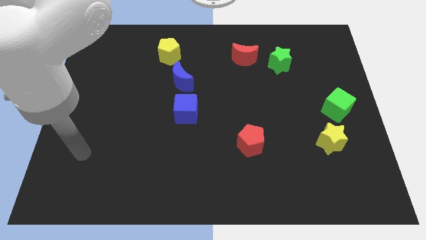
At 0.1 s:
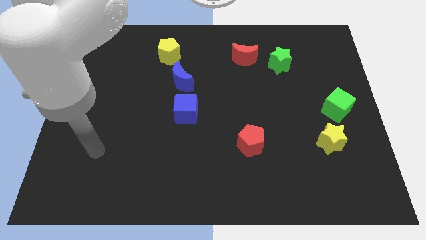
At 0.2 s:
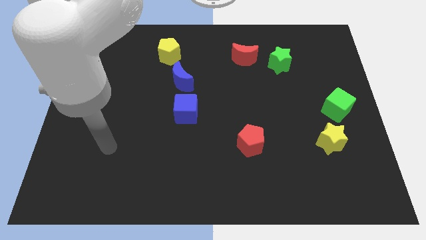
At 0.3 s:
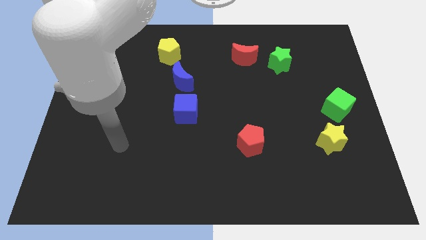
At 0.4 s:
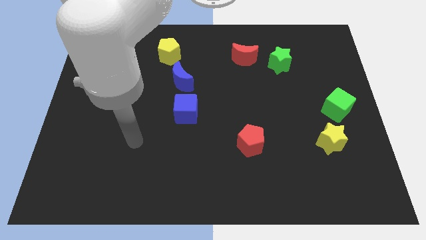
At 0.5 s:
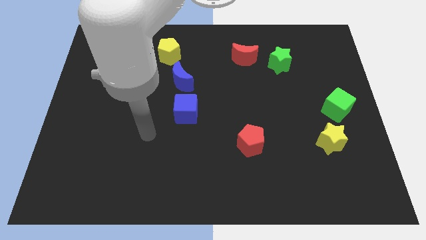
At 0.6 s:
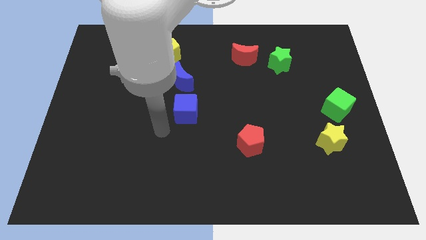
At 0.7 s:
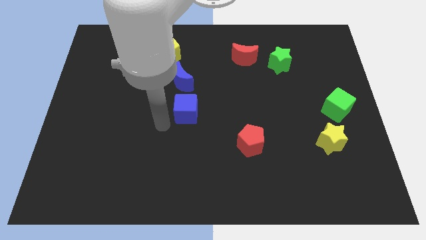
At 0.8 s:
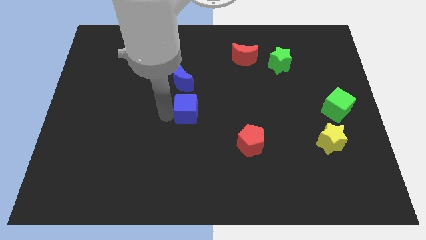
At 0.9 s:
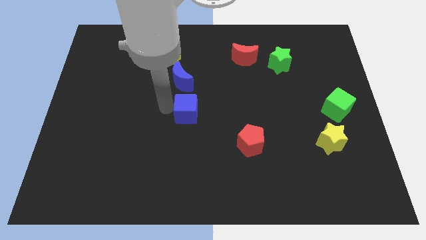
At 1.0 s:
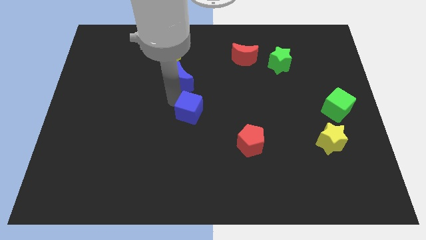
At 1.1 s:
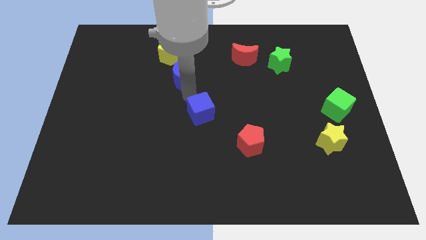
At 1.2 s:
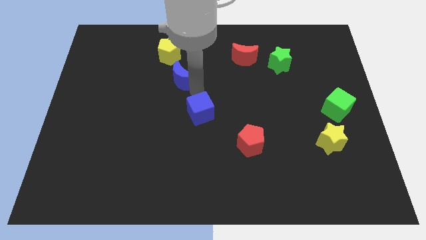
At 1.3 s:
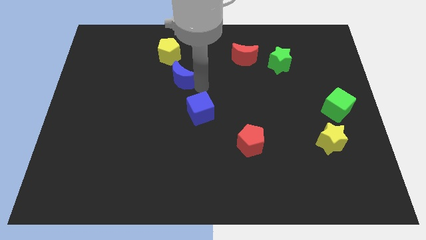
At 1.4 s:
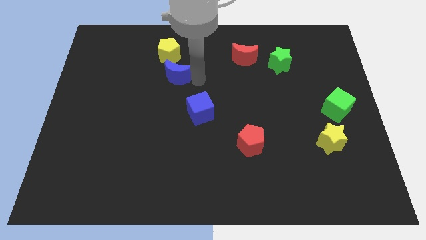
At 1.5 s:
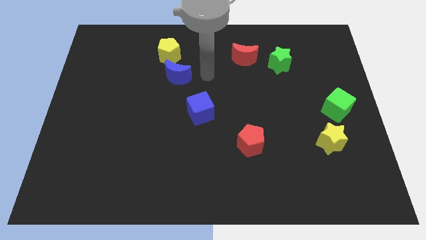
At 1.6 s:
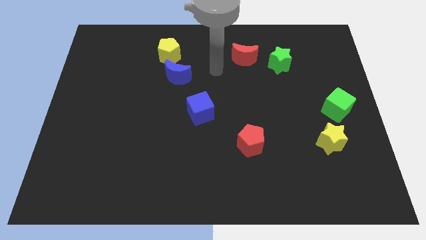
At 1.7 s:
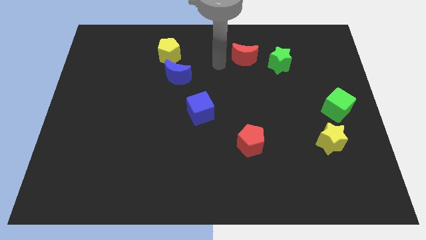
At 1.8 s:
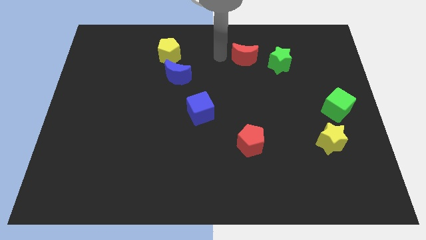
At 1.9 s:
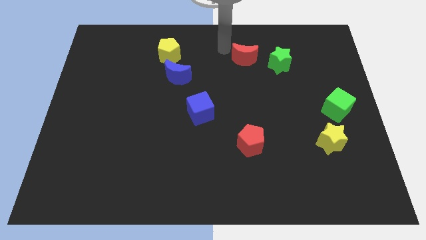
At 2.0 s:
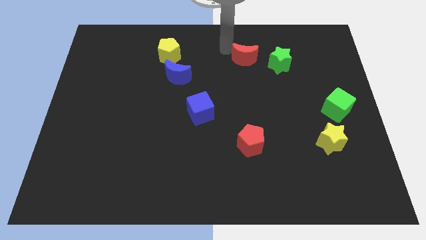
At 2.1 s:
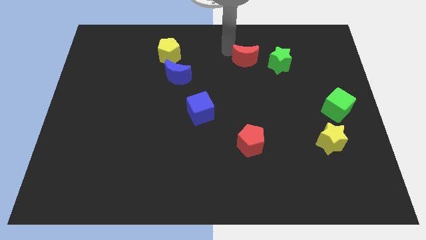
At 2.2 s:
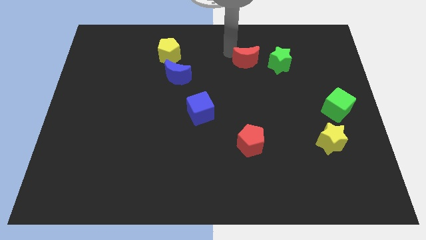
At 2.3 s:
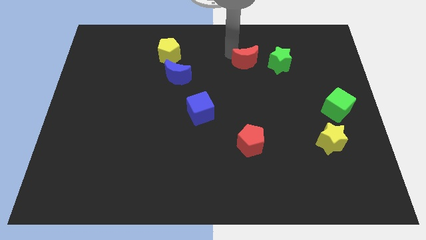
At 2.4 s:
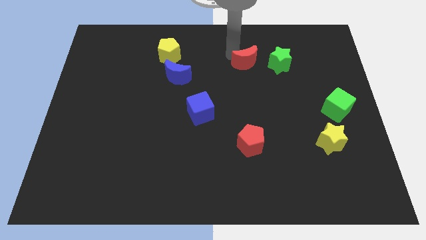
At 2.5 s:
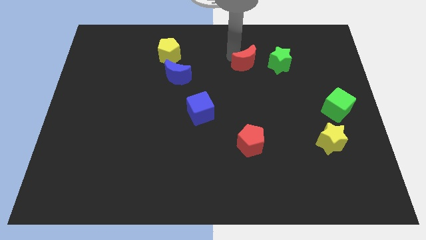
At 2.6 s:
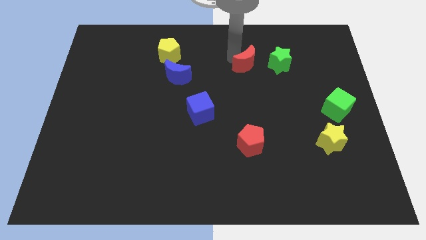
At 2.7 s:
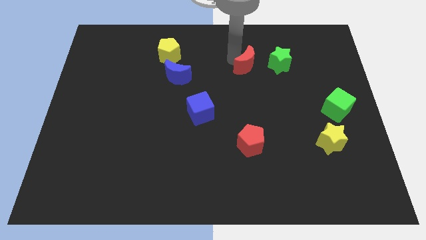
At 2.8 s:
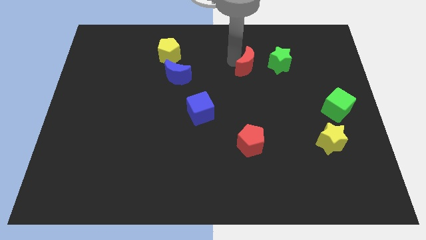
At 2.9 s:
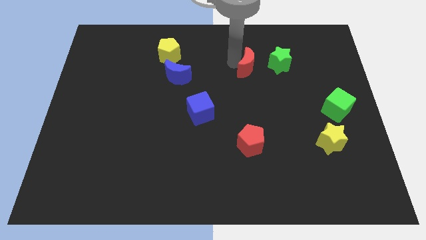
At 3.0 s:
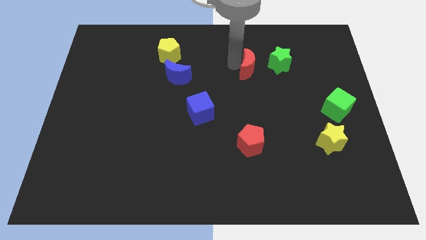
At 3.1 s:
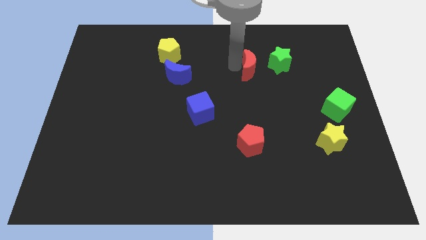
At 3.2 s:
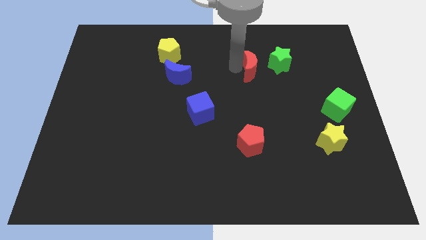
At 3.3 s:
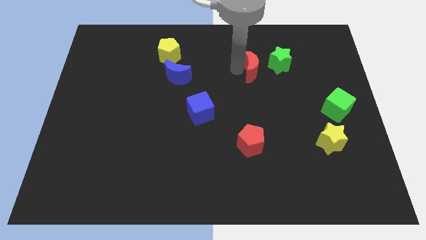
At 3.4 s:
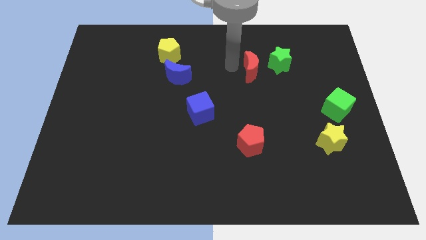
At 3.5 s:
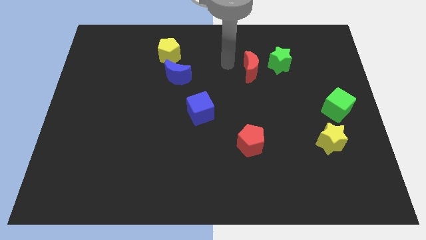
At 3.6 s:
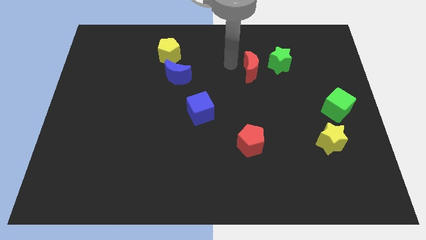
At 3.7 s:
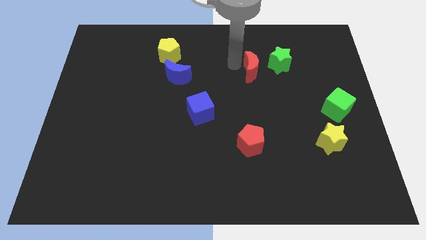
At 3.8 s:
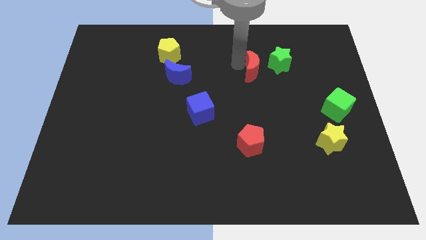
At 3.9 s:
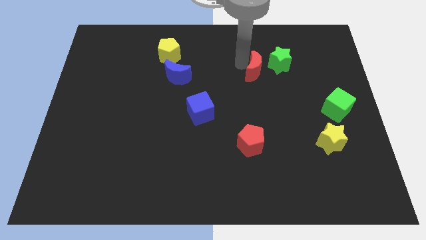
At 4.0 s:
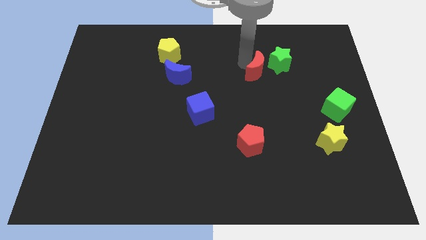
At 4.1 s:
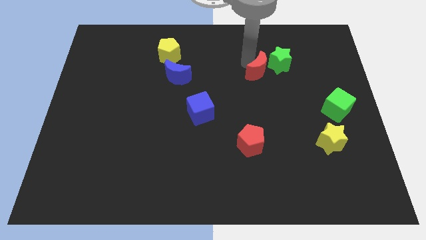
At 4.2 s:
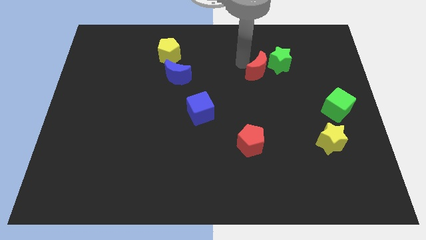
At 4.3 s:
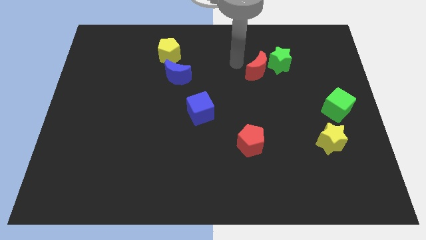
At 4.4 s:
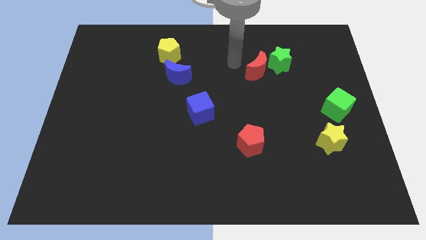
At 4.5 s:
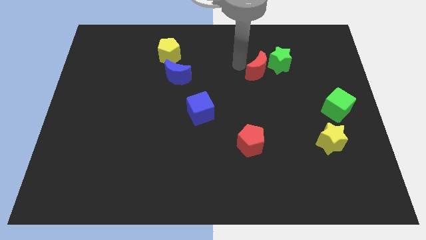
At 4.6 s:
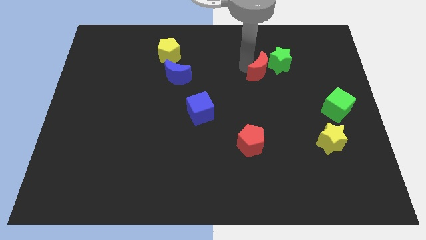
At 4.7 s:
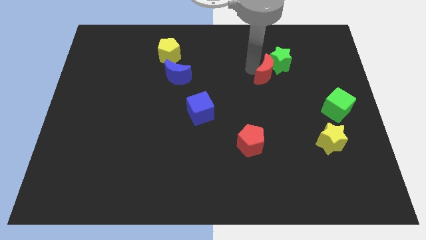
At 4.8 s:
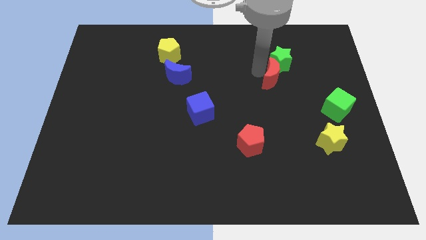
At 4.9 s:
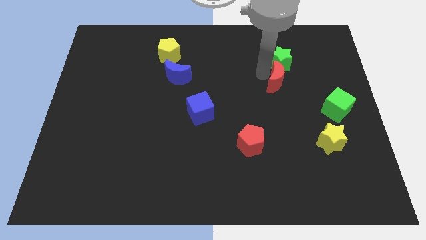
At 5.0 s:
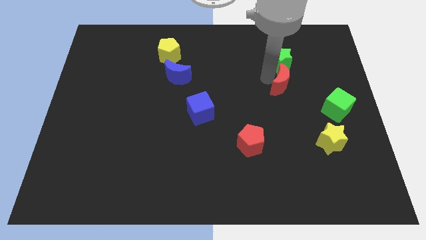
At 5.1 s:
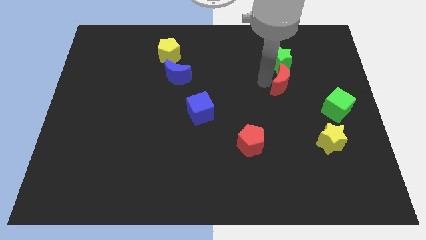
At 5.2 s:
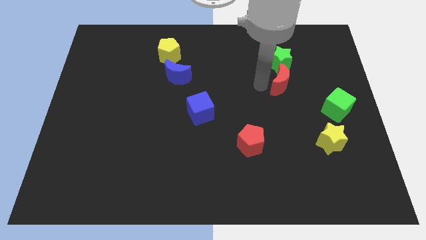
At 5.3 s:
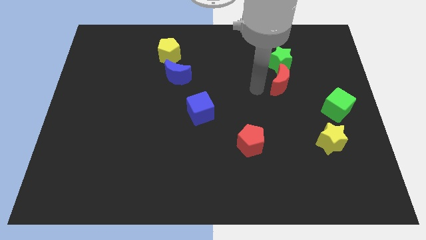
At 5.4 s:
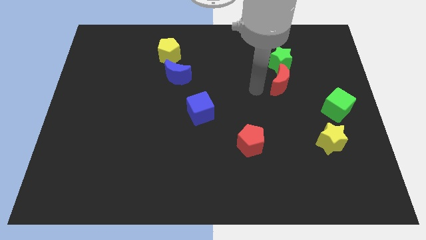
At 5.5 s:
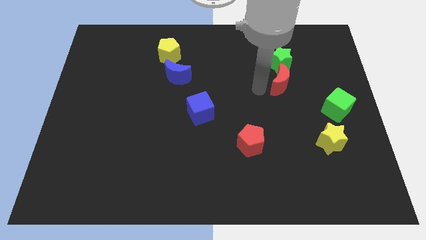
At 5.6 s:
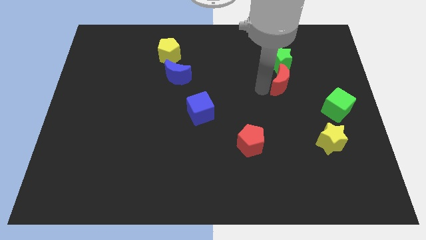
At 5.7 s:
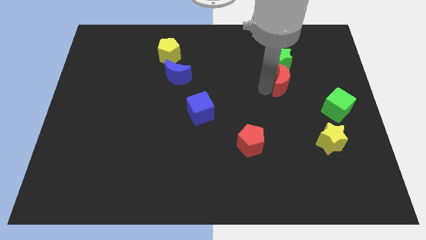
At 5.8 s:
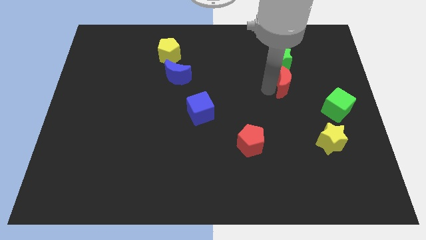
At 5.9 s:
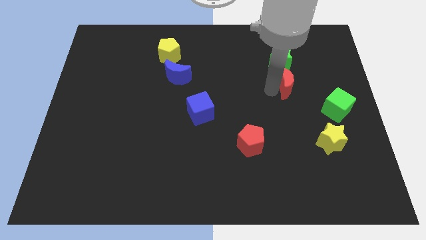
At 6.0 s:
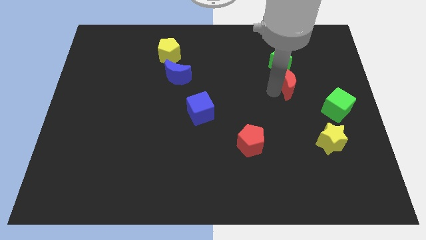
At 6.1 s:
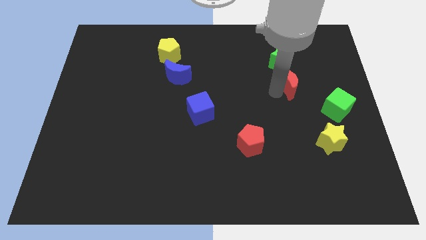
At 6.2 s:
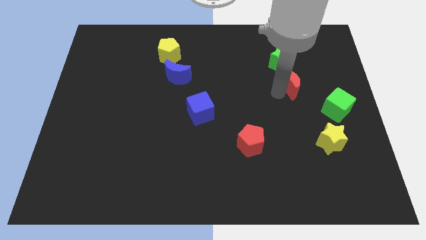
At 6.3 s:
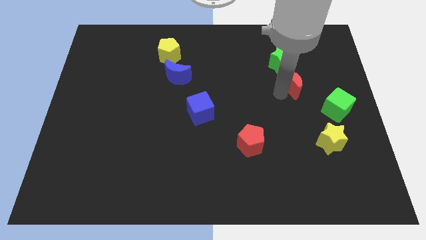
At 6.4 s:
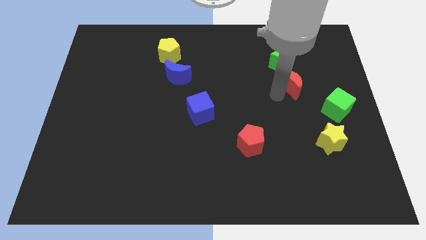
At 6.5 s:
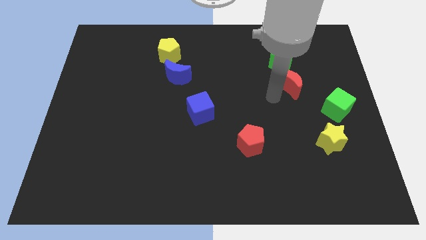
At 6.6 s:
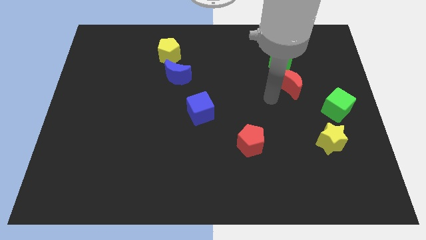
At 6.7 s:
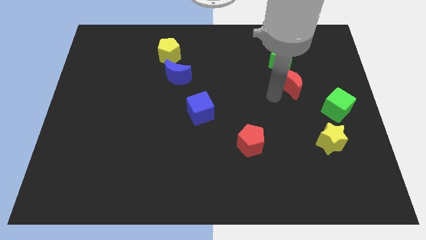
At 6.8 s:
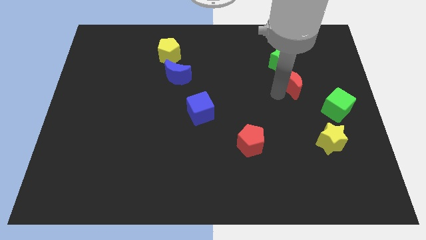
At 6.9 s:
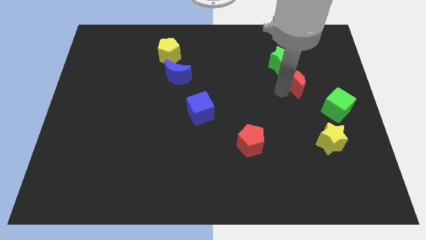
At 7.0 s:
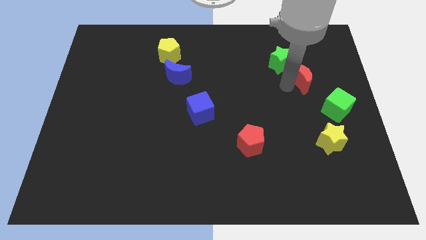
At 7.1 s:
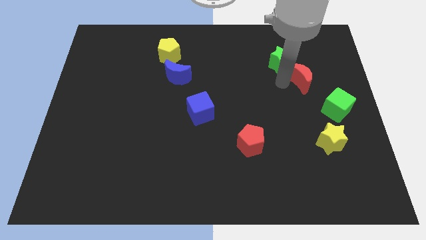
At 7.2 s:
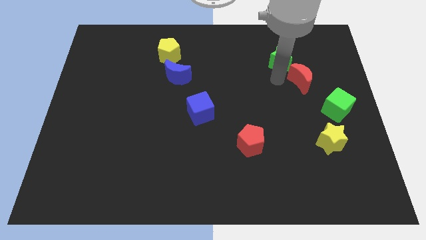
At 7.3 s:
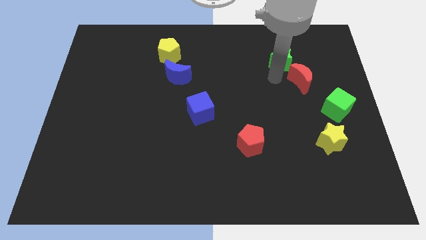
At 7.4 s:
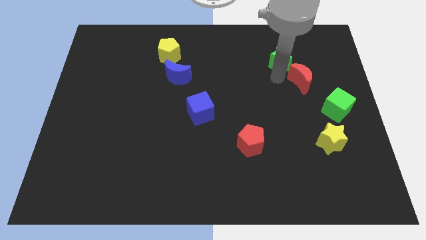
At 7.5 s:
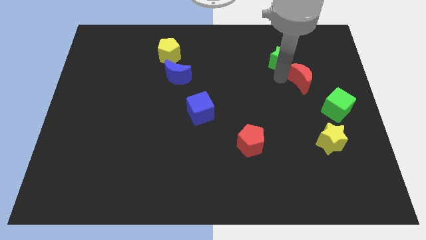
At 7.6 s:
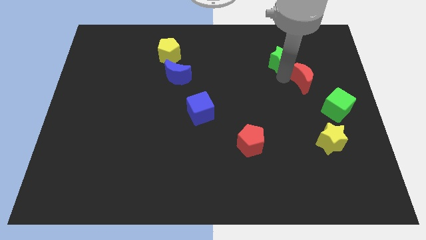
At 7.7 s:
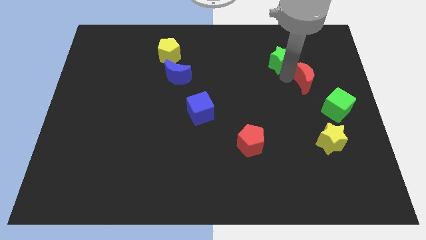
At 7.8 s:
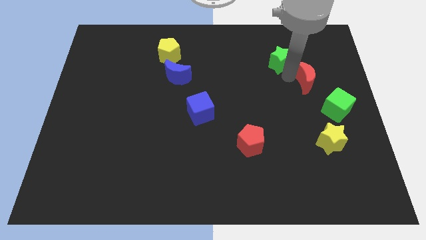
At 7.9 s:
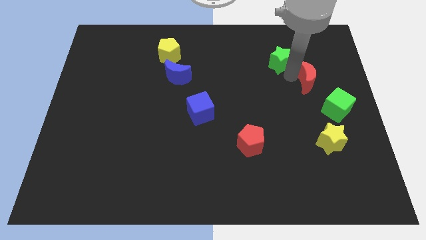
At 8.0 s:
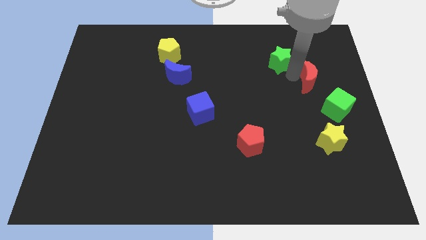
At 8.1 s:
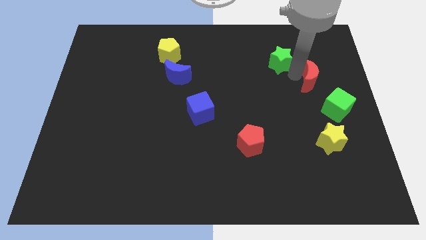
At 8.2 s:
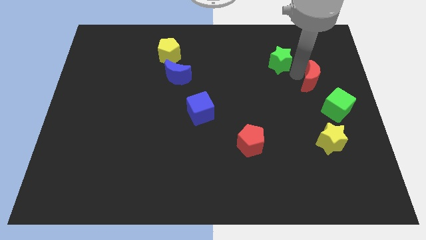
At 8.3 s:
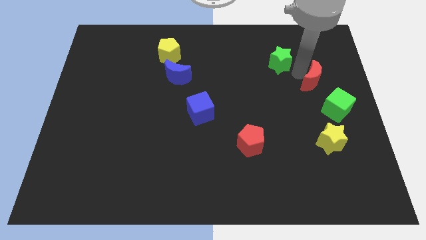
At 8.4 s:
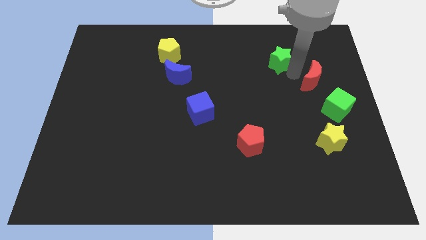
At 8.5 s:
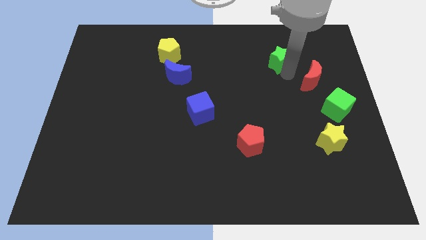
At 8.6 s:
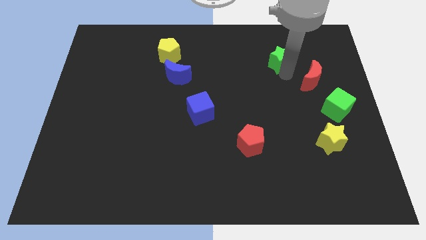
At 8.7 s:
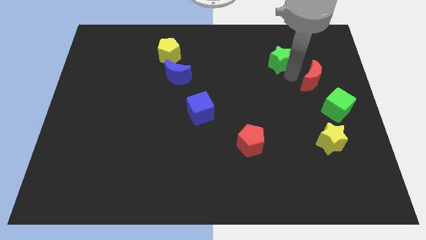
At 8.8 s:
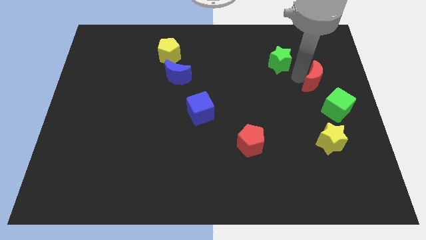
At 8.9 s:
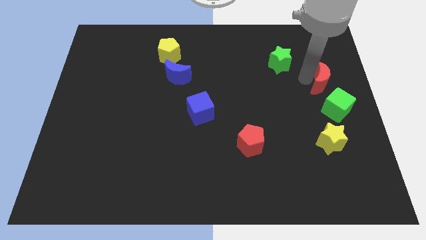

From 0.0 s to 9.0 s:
put the red moon to the right side
